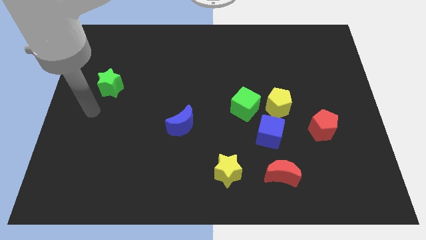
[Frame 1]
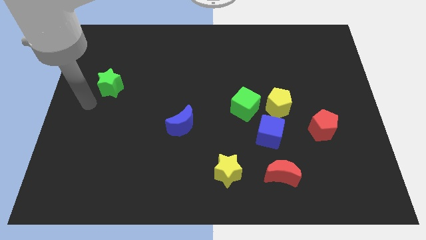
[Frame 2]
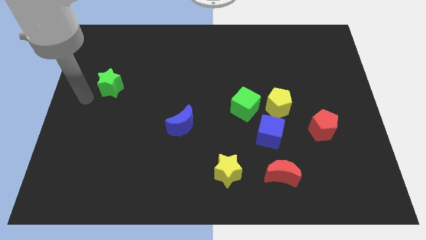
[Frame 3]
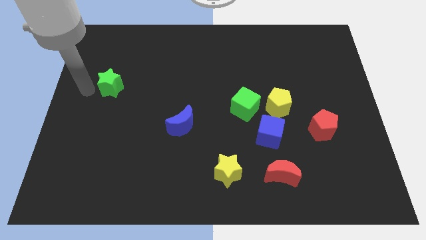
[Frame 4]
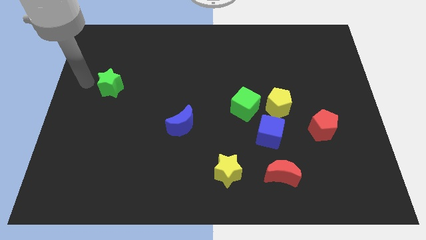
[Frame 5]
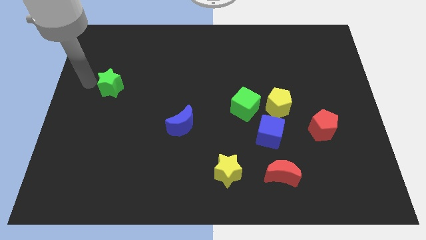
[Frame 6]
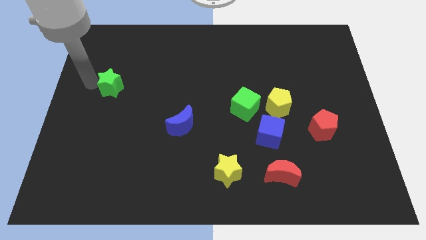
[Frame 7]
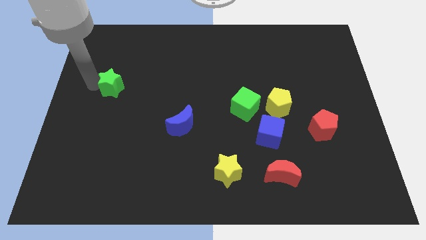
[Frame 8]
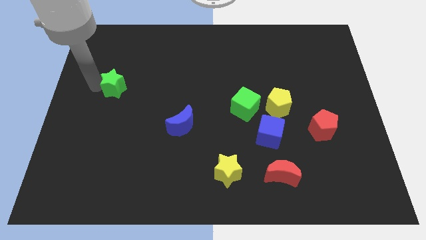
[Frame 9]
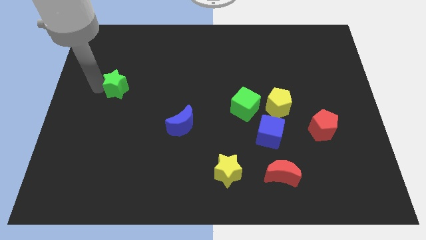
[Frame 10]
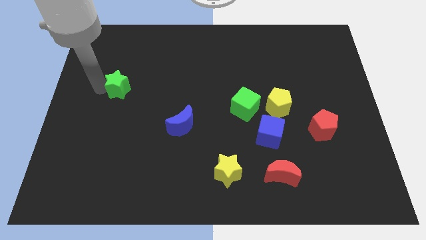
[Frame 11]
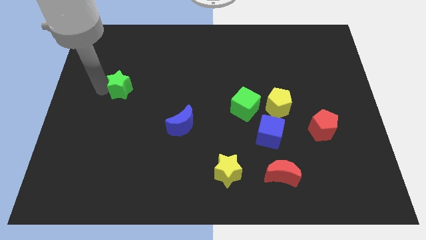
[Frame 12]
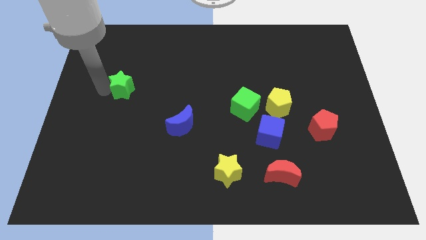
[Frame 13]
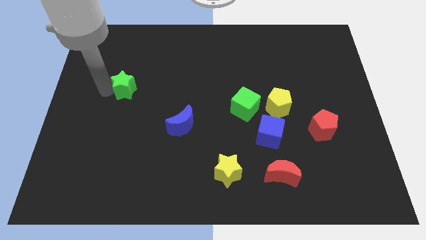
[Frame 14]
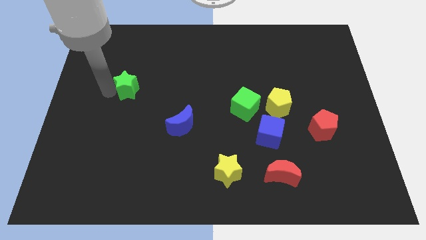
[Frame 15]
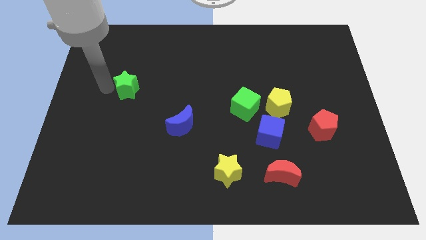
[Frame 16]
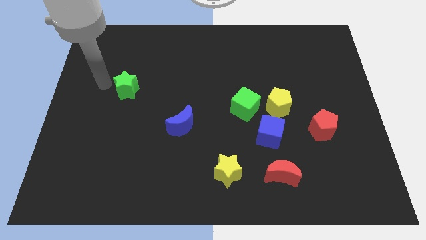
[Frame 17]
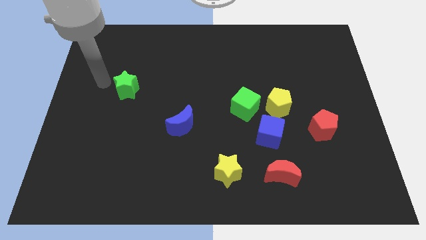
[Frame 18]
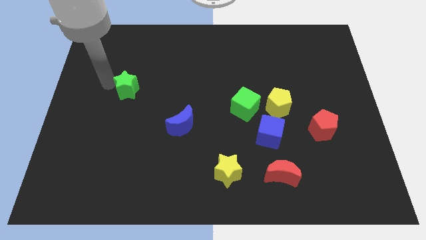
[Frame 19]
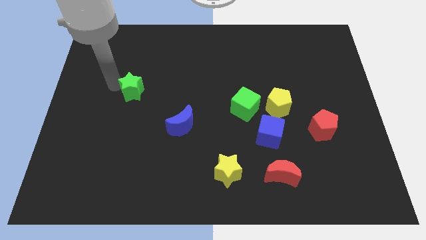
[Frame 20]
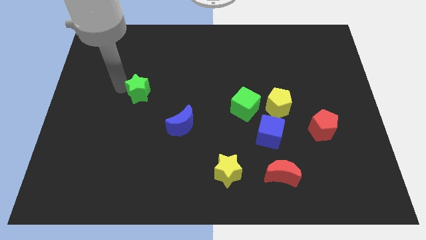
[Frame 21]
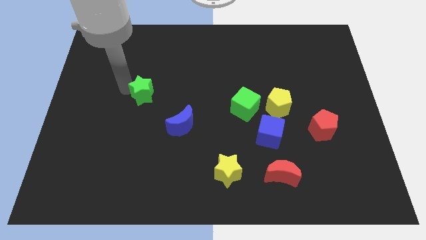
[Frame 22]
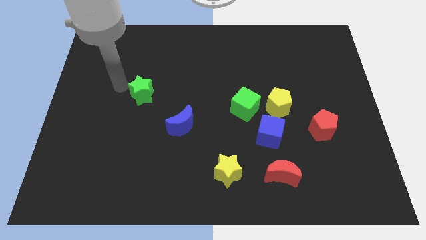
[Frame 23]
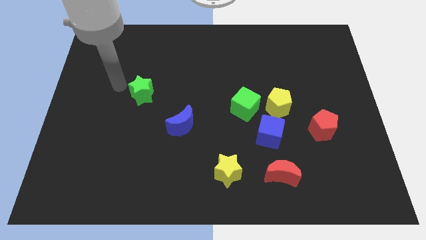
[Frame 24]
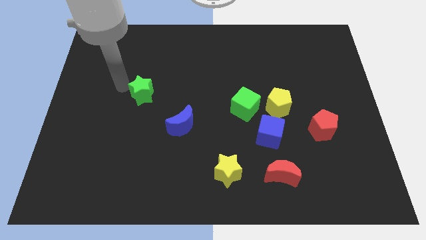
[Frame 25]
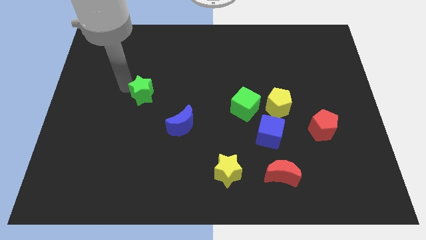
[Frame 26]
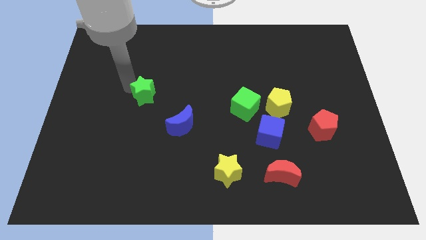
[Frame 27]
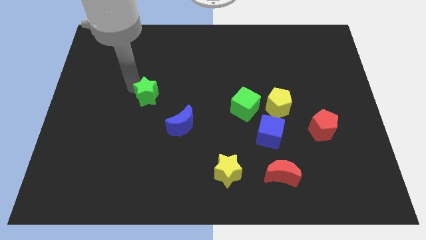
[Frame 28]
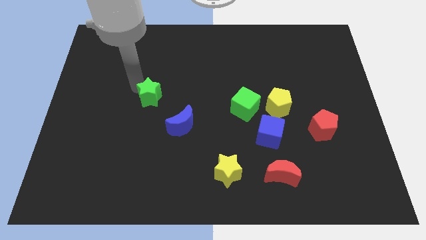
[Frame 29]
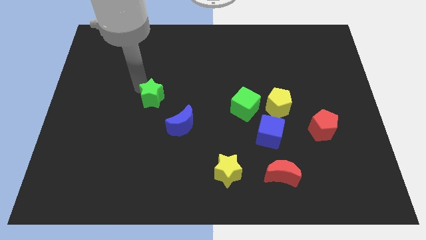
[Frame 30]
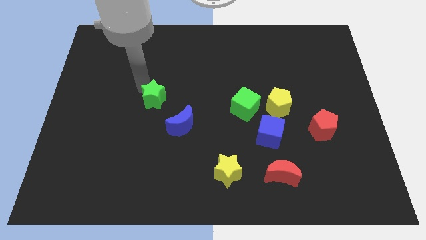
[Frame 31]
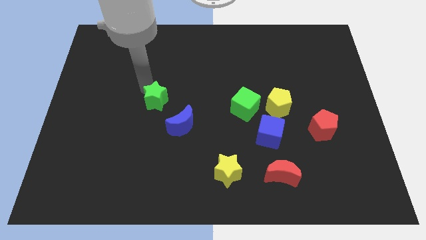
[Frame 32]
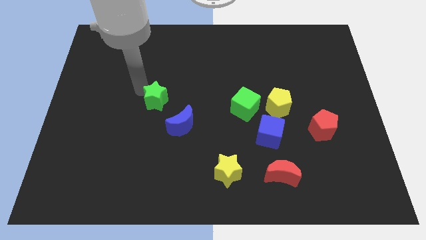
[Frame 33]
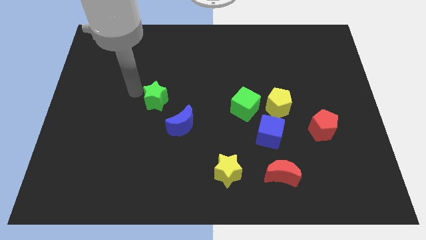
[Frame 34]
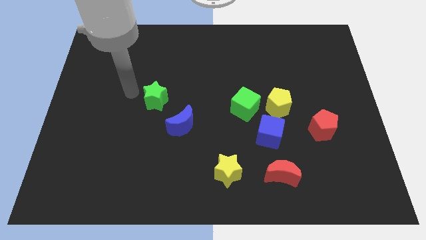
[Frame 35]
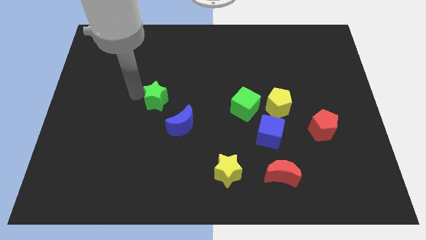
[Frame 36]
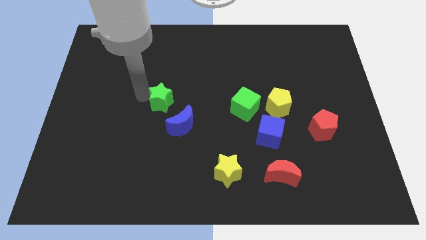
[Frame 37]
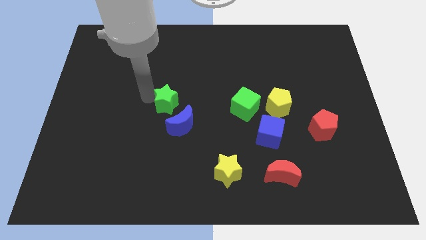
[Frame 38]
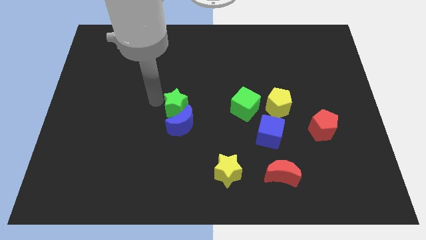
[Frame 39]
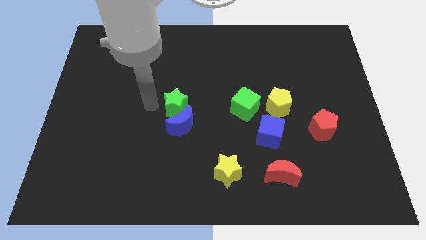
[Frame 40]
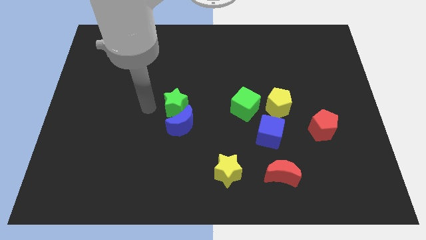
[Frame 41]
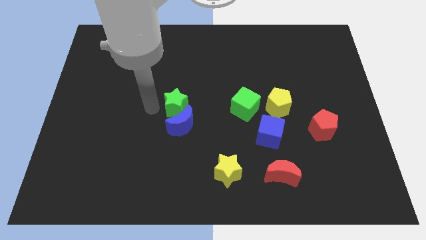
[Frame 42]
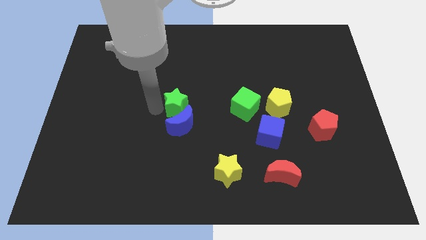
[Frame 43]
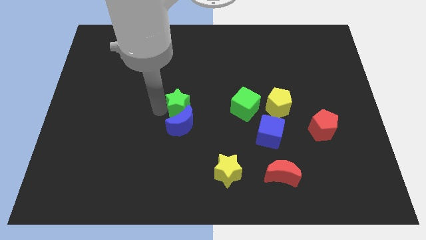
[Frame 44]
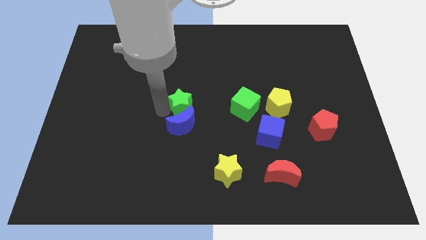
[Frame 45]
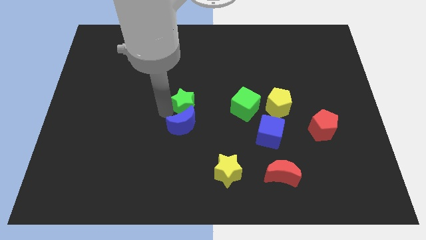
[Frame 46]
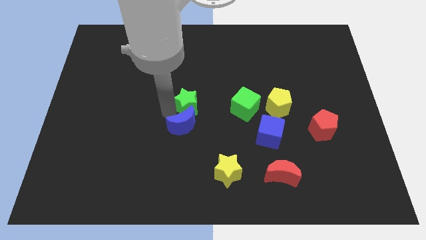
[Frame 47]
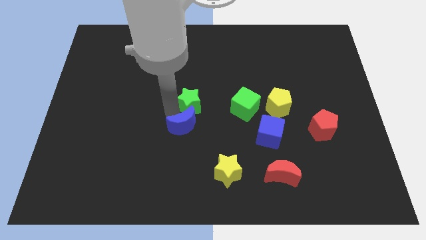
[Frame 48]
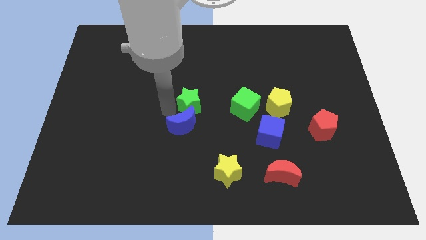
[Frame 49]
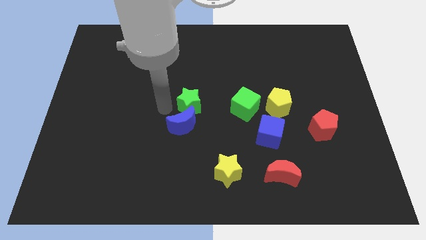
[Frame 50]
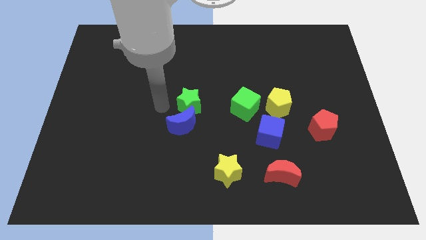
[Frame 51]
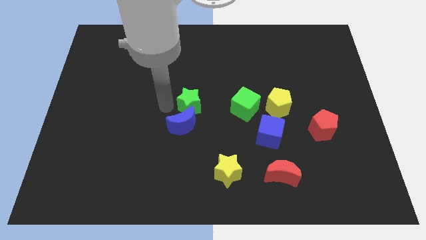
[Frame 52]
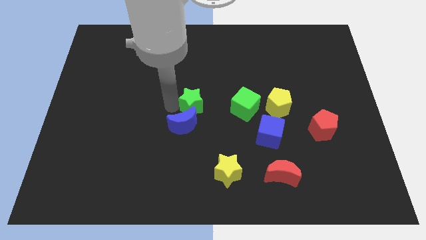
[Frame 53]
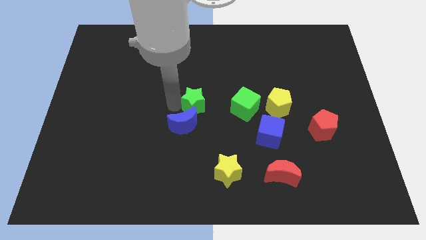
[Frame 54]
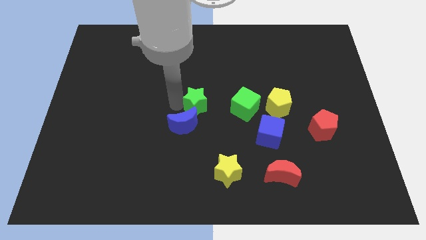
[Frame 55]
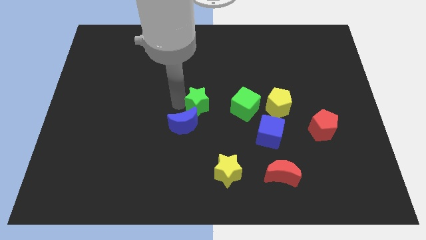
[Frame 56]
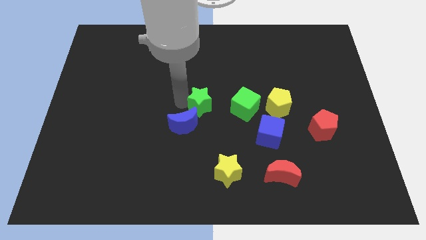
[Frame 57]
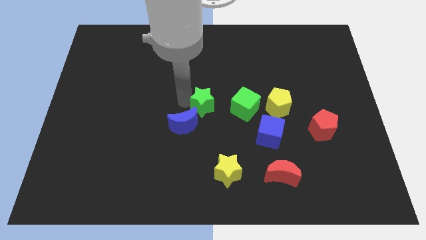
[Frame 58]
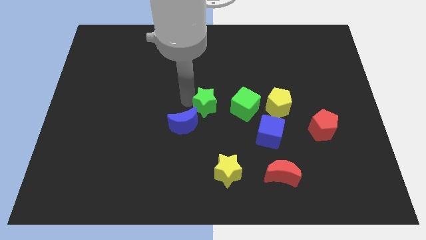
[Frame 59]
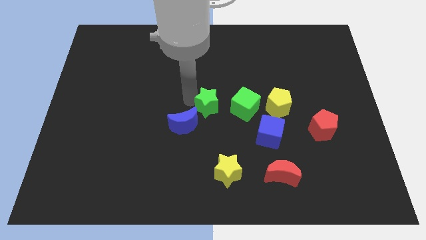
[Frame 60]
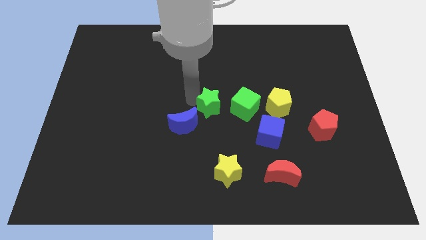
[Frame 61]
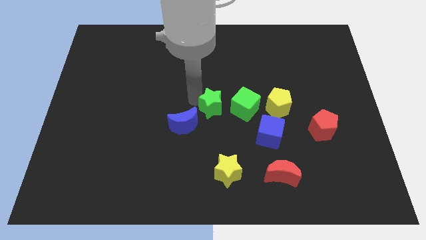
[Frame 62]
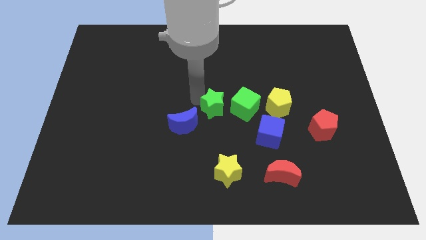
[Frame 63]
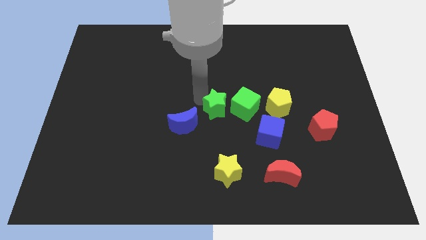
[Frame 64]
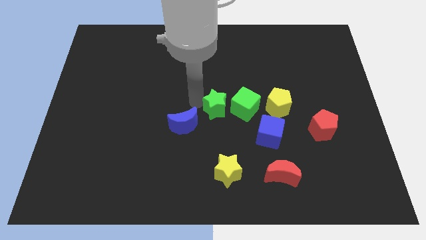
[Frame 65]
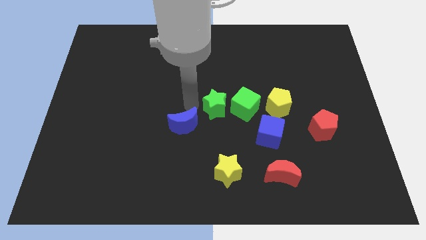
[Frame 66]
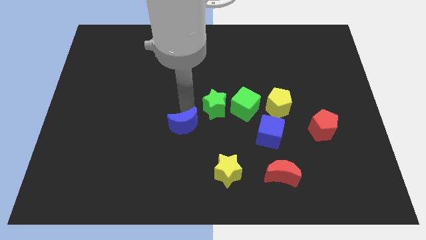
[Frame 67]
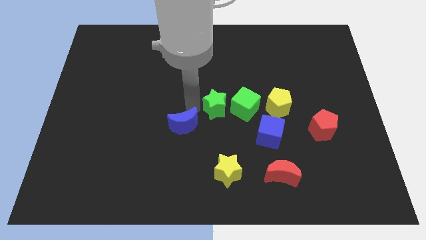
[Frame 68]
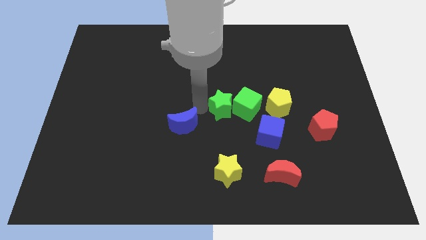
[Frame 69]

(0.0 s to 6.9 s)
push the green star next to the green cube

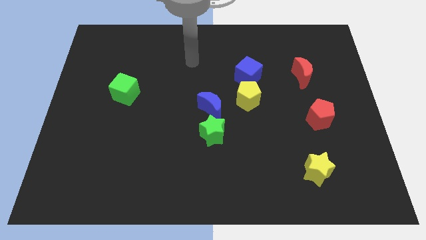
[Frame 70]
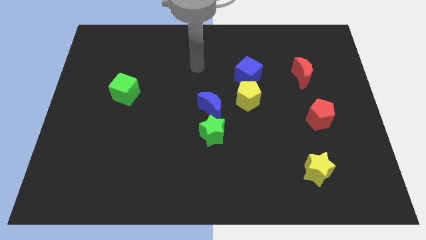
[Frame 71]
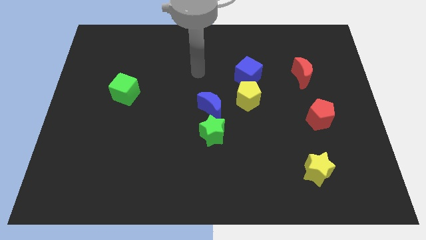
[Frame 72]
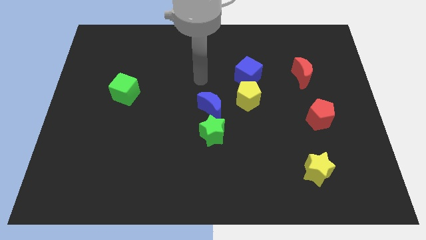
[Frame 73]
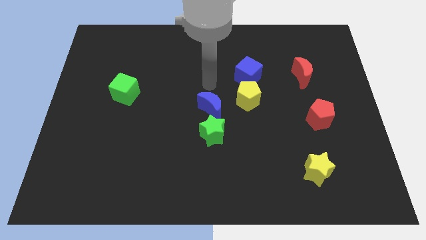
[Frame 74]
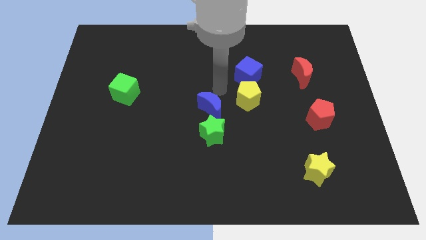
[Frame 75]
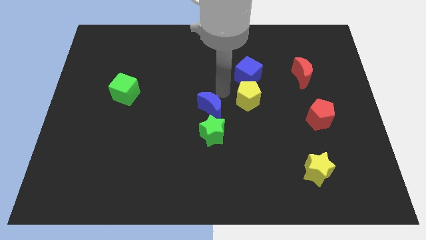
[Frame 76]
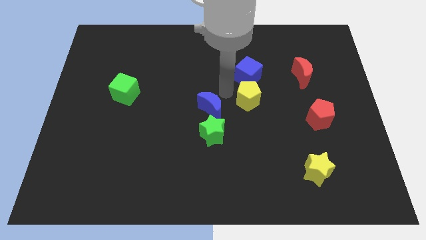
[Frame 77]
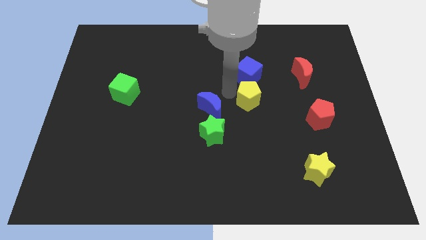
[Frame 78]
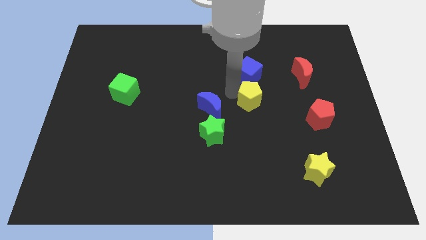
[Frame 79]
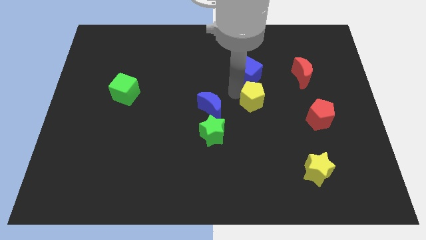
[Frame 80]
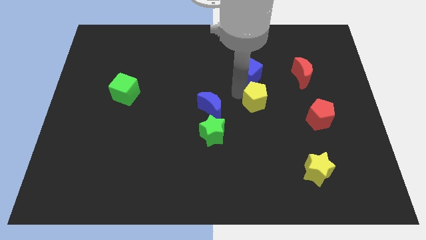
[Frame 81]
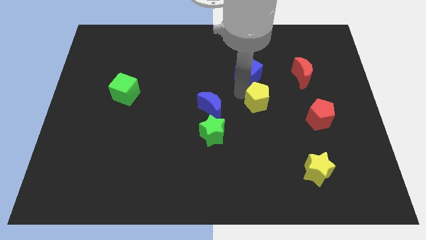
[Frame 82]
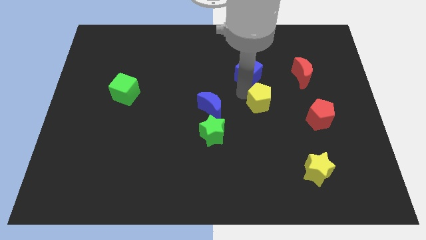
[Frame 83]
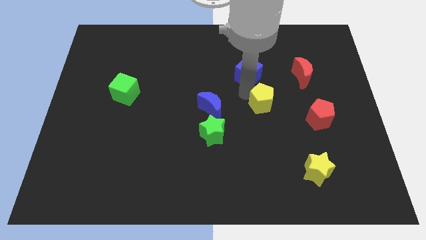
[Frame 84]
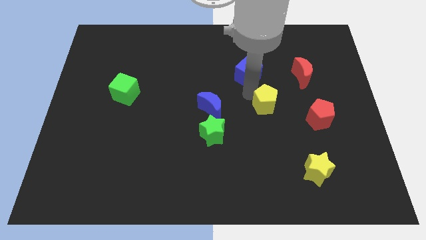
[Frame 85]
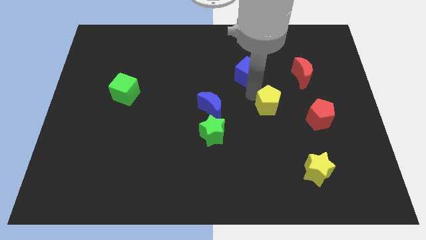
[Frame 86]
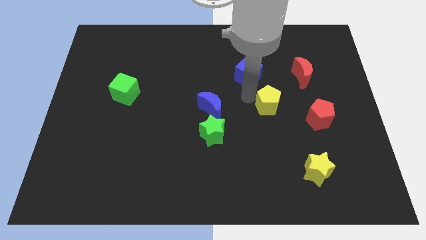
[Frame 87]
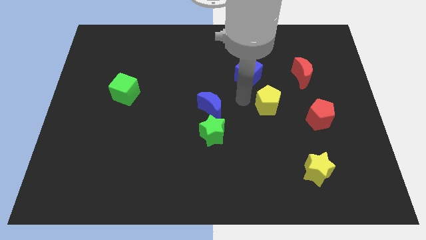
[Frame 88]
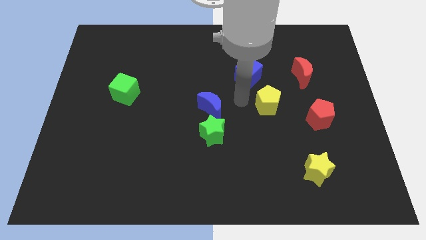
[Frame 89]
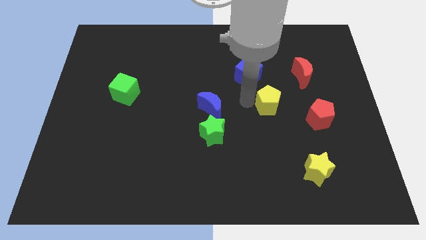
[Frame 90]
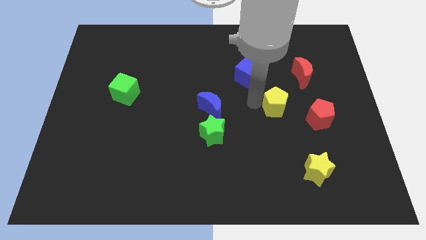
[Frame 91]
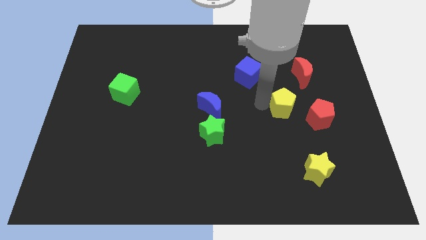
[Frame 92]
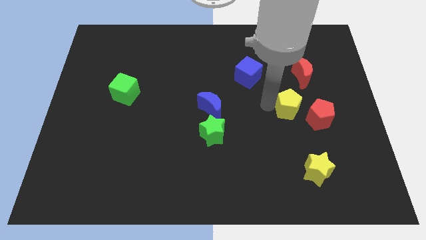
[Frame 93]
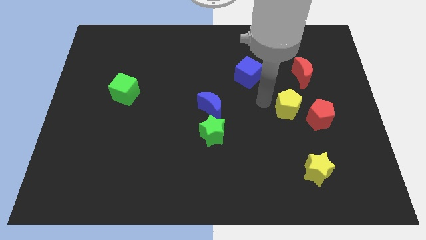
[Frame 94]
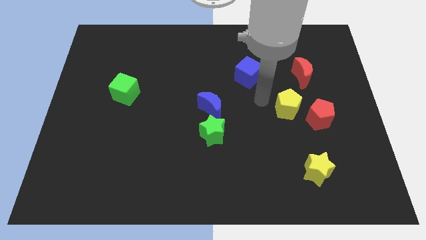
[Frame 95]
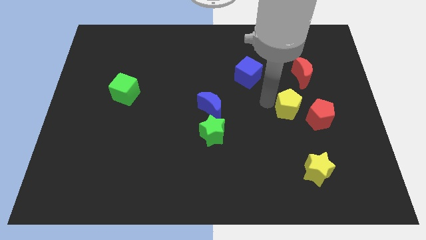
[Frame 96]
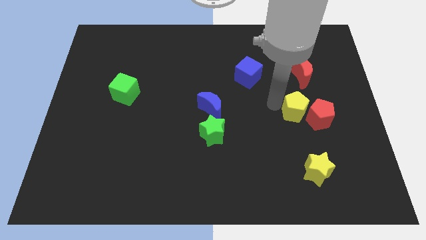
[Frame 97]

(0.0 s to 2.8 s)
slide the yellow pentagon close to the red pentagon
